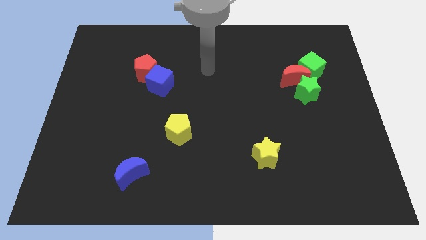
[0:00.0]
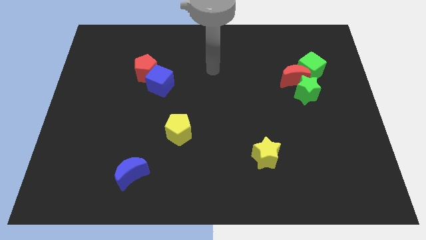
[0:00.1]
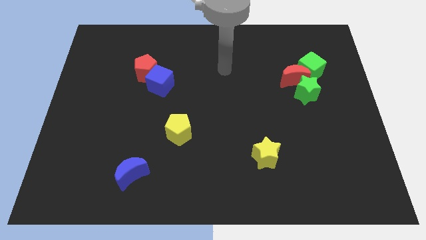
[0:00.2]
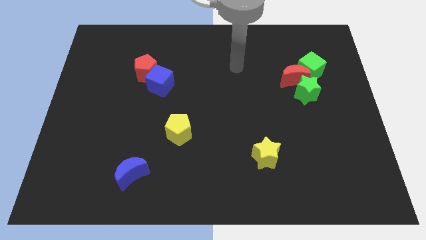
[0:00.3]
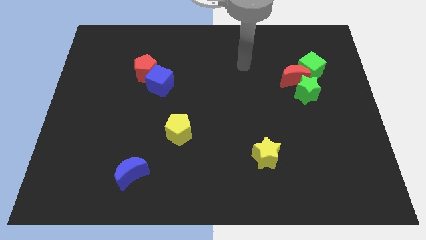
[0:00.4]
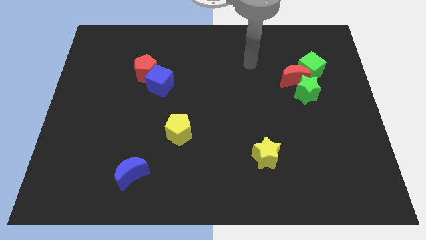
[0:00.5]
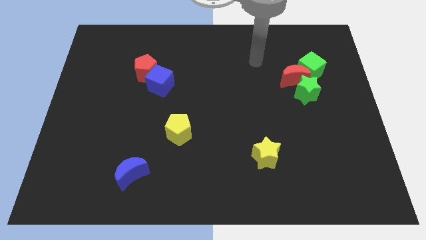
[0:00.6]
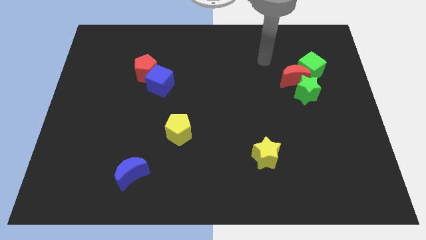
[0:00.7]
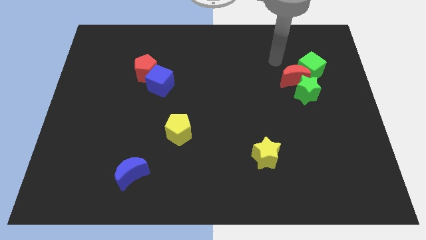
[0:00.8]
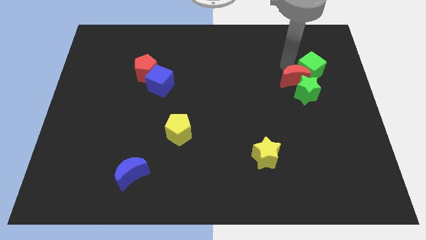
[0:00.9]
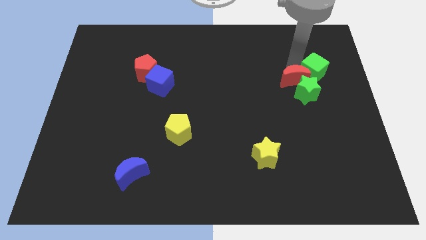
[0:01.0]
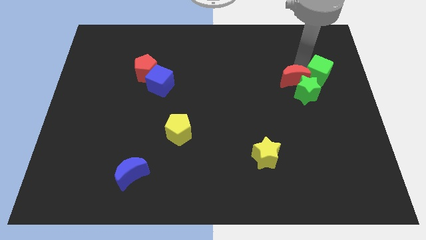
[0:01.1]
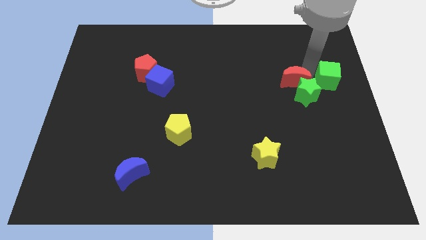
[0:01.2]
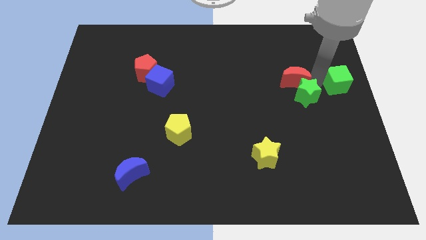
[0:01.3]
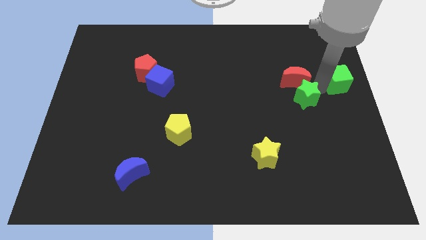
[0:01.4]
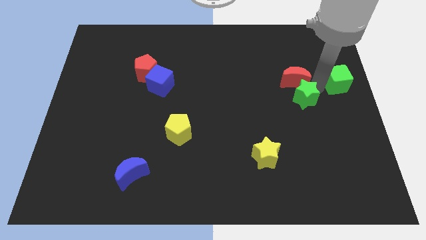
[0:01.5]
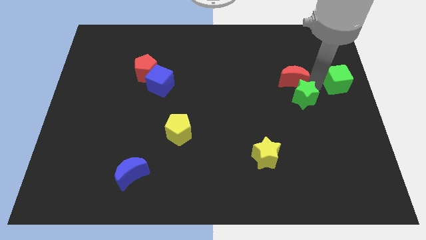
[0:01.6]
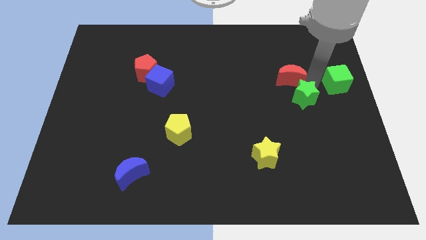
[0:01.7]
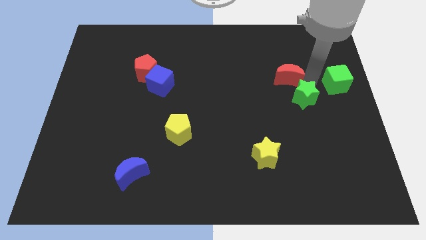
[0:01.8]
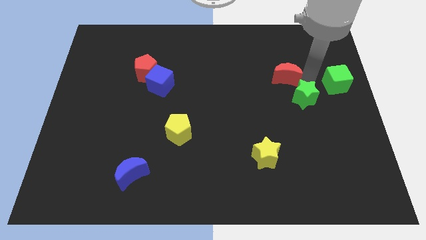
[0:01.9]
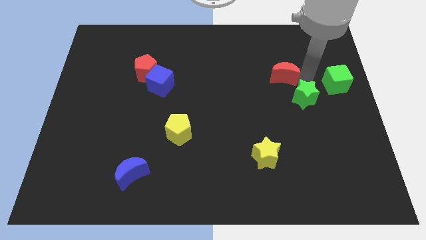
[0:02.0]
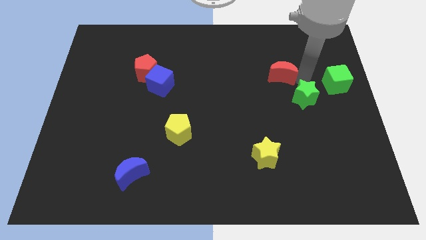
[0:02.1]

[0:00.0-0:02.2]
move the red moon away from the green star and green cube

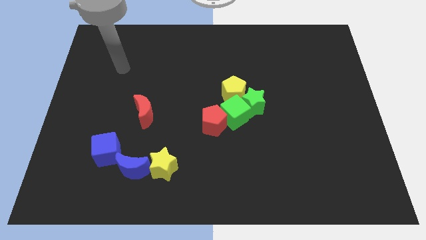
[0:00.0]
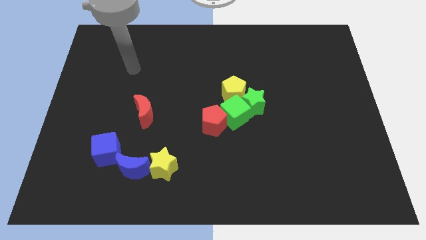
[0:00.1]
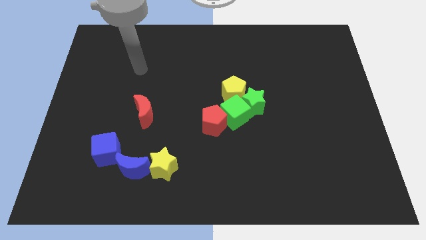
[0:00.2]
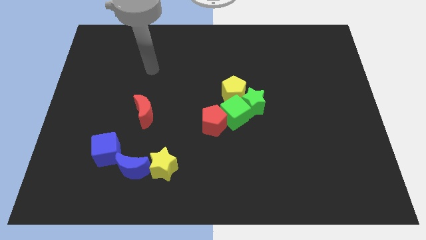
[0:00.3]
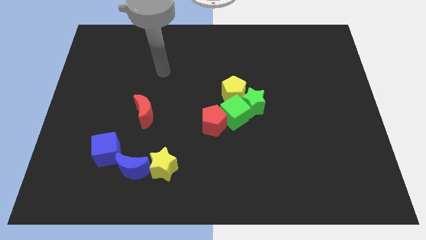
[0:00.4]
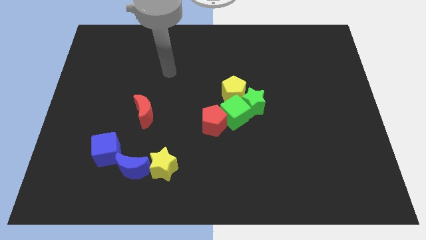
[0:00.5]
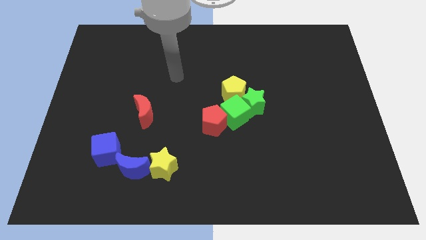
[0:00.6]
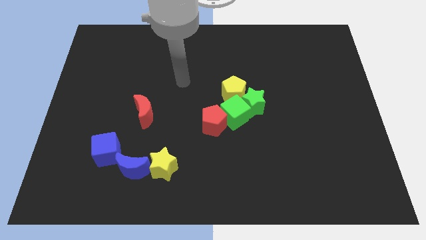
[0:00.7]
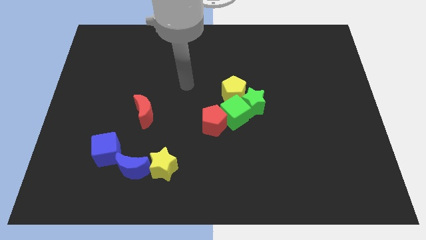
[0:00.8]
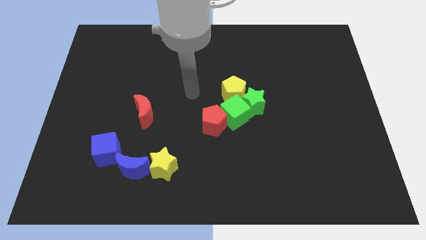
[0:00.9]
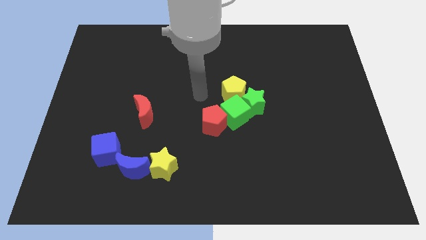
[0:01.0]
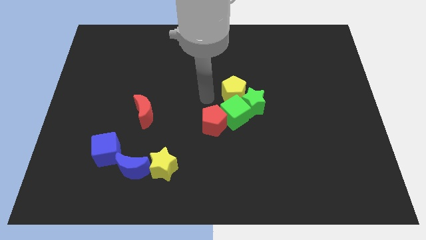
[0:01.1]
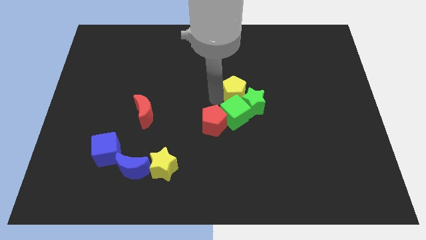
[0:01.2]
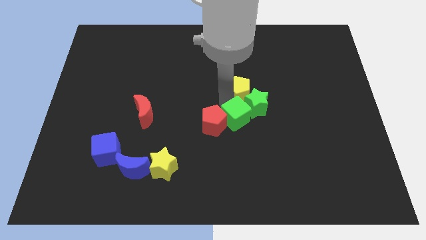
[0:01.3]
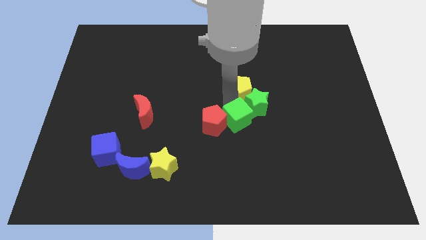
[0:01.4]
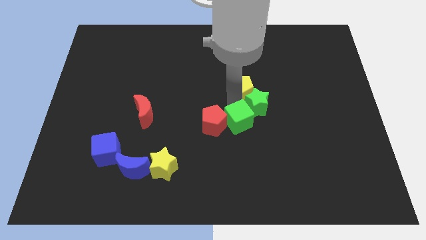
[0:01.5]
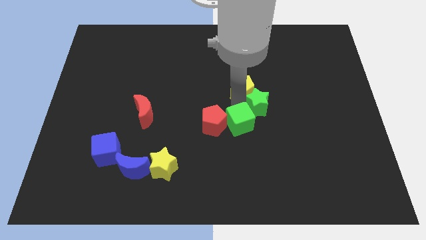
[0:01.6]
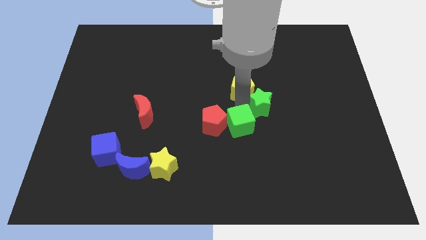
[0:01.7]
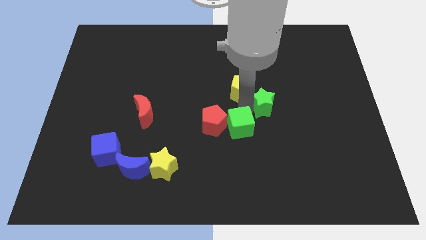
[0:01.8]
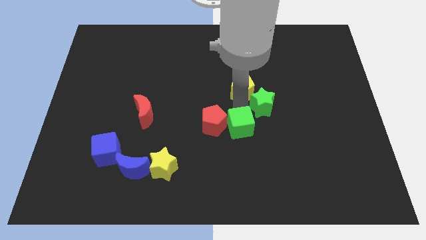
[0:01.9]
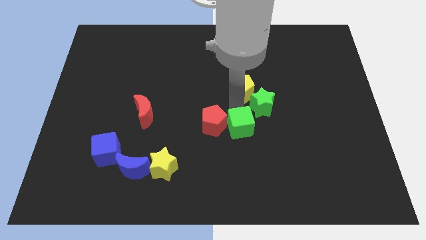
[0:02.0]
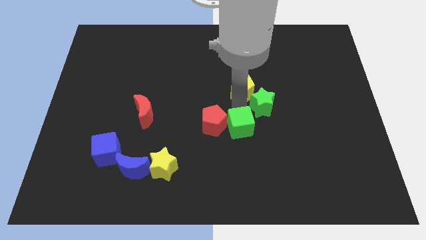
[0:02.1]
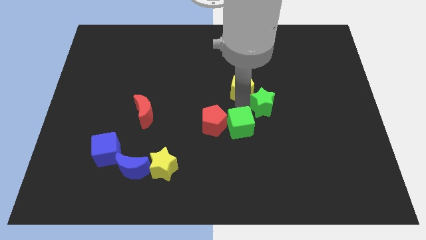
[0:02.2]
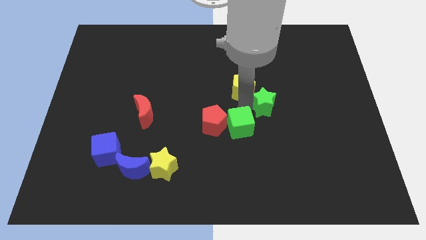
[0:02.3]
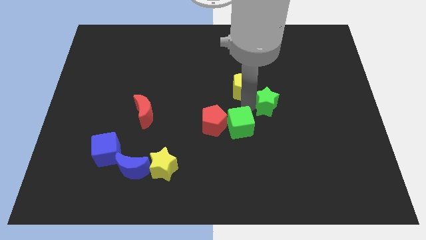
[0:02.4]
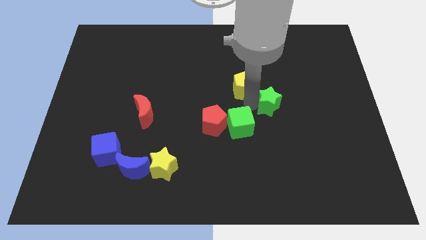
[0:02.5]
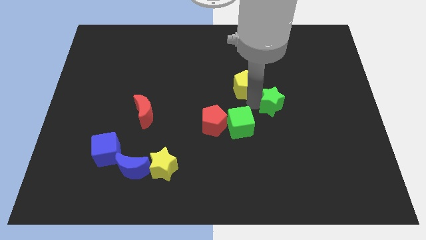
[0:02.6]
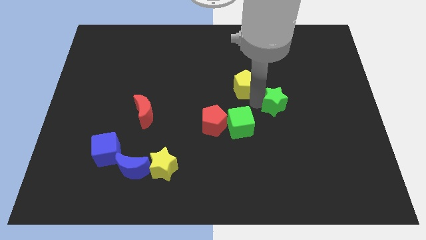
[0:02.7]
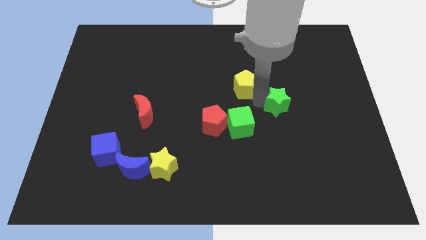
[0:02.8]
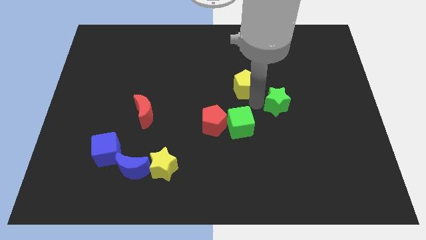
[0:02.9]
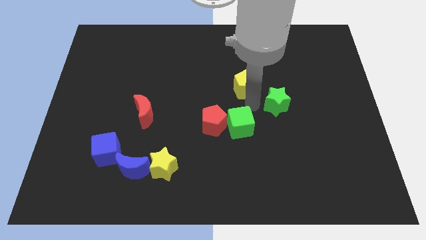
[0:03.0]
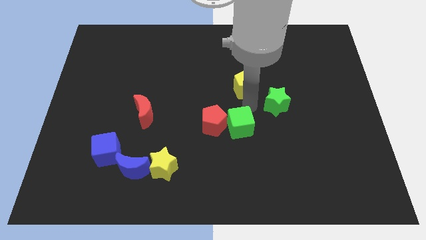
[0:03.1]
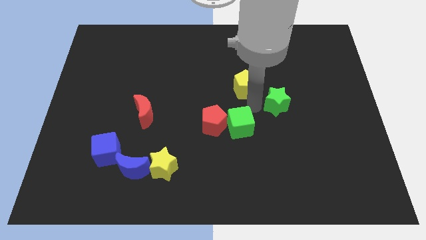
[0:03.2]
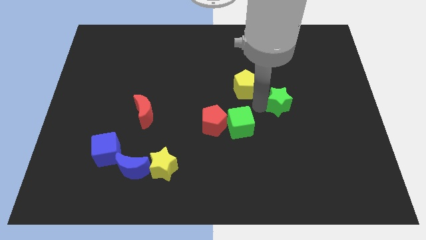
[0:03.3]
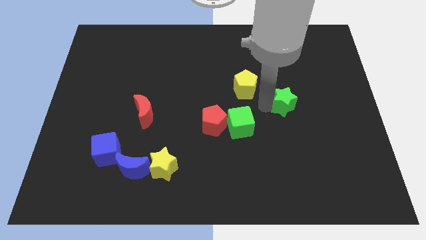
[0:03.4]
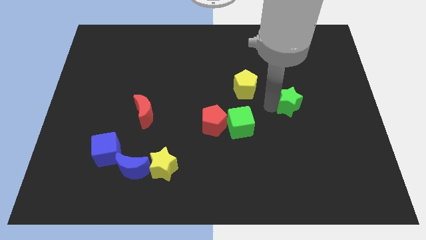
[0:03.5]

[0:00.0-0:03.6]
separate the green star from the green cube and yellow pentagon

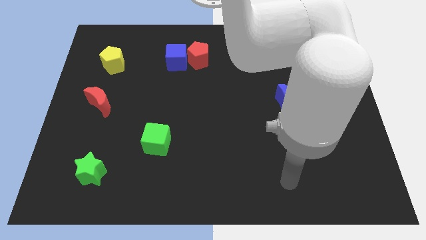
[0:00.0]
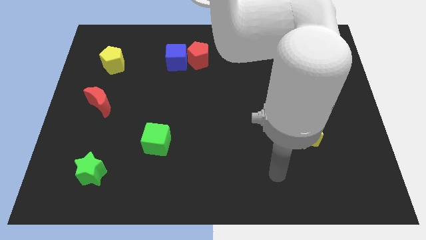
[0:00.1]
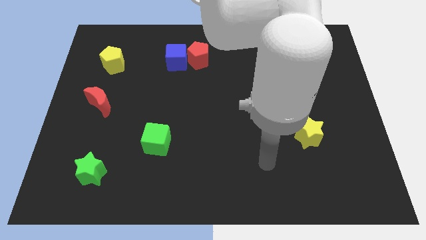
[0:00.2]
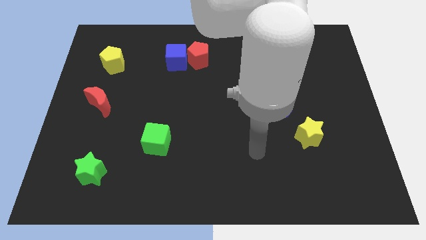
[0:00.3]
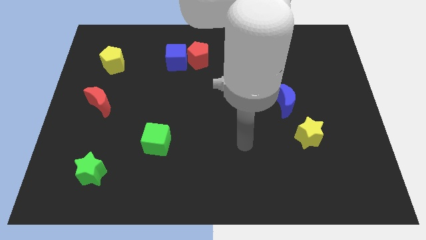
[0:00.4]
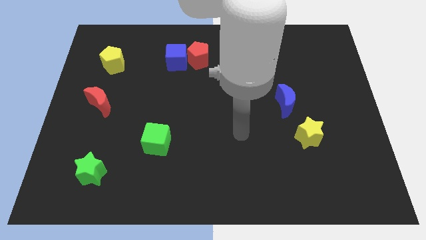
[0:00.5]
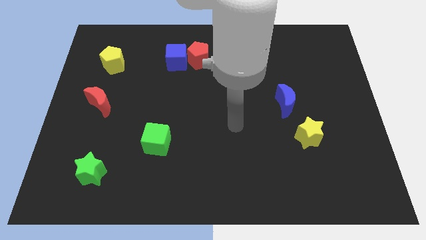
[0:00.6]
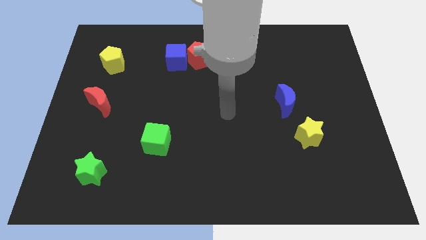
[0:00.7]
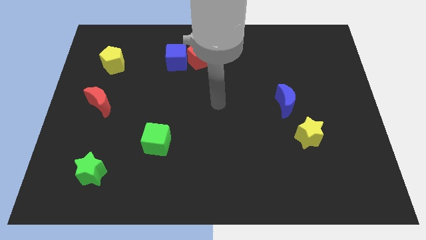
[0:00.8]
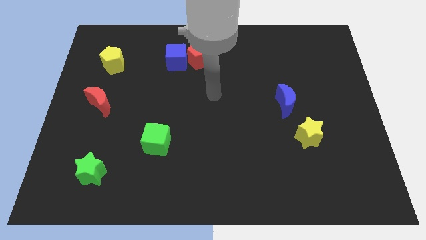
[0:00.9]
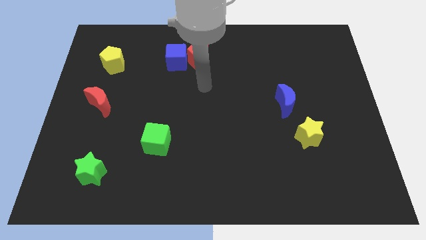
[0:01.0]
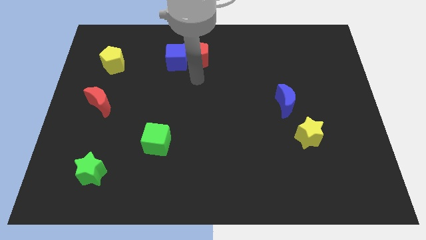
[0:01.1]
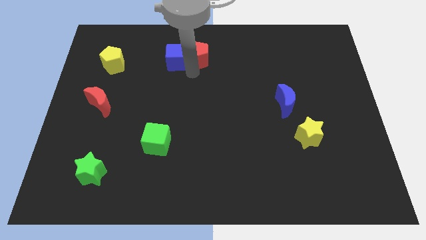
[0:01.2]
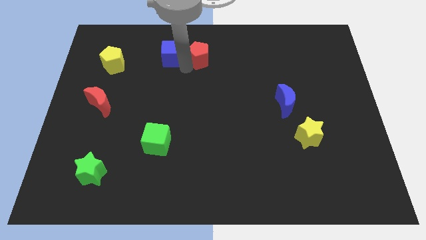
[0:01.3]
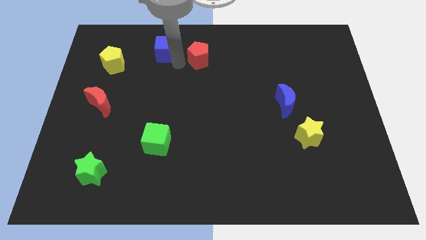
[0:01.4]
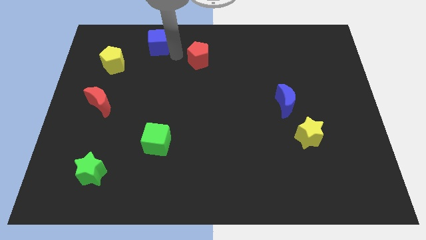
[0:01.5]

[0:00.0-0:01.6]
move the red pentagon away from the blue cube

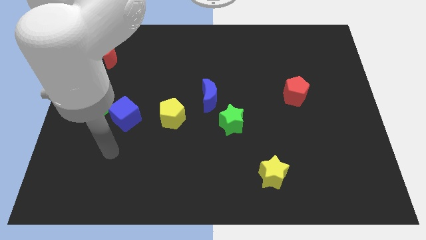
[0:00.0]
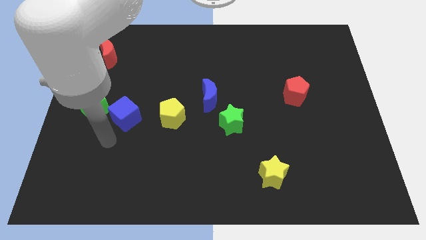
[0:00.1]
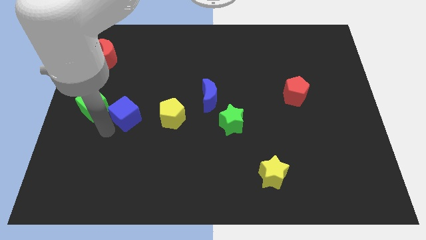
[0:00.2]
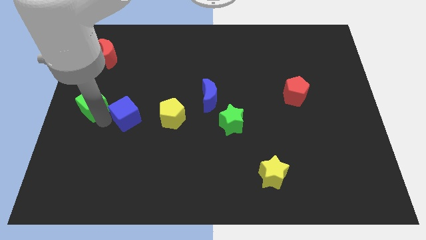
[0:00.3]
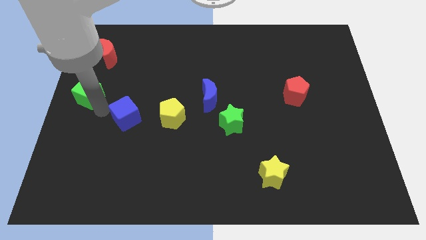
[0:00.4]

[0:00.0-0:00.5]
pull the blue cube apart from the green cube

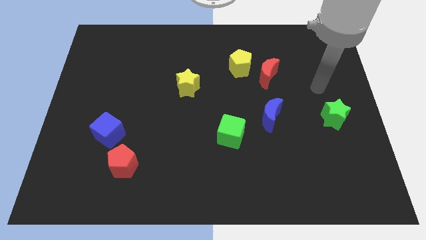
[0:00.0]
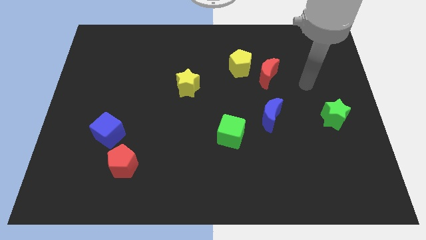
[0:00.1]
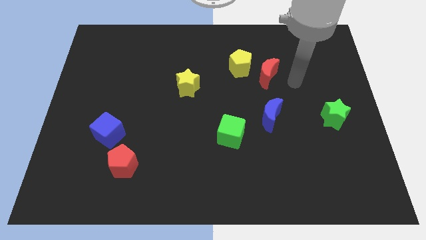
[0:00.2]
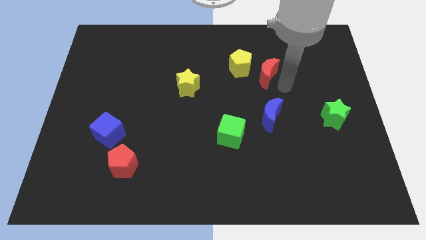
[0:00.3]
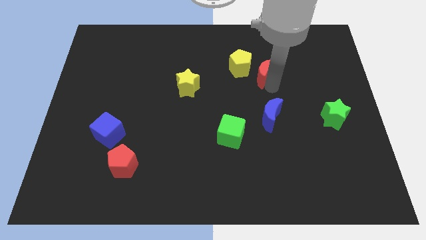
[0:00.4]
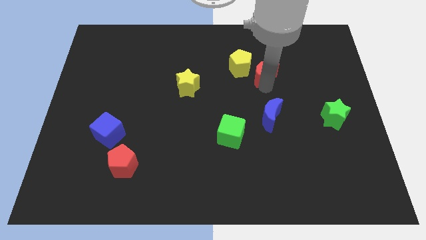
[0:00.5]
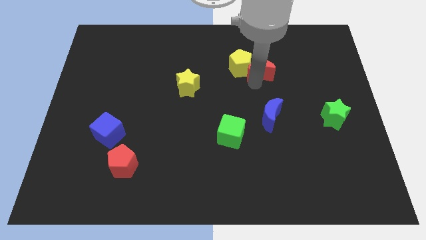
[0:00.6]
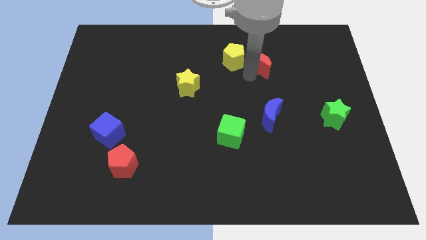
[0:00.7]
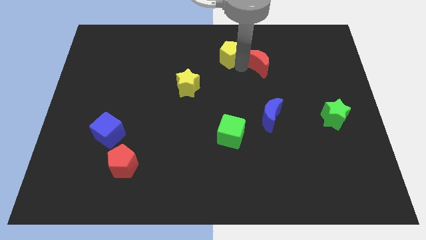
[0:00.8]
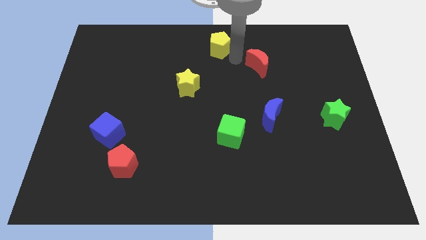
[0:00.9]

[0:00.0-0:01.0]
pull the red moon apart from the yellow pentagon

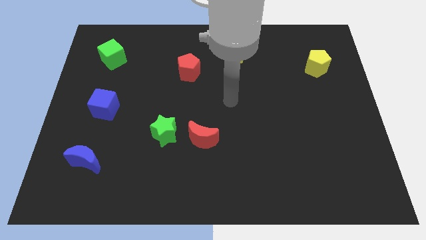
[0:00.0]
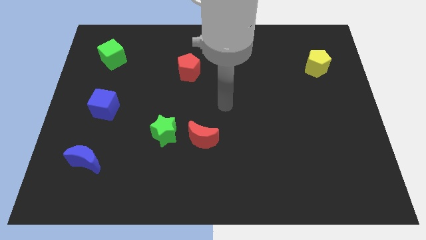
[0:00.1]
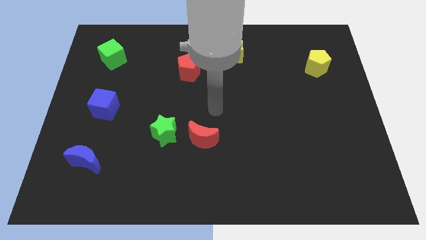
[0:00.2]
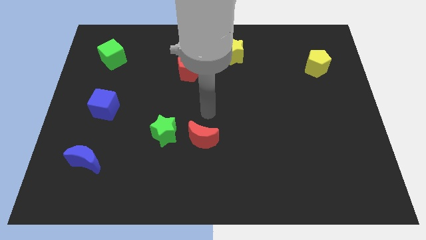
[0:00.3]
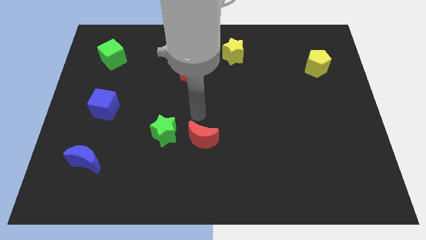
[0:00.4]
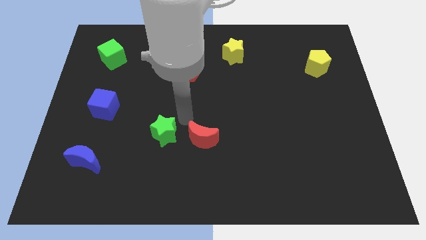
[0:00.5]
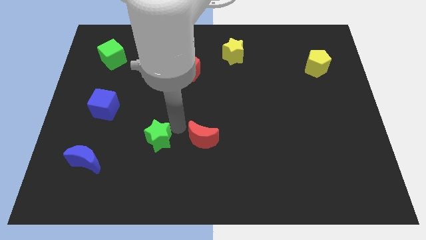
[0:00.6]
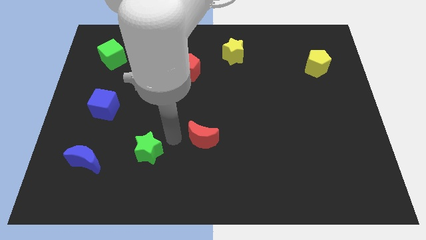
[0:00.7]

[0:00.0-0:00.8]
move the red moon away from the green star
